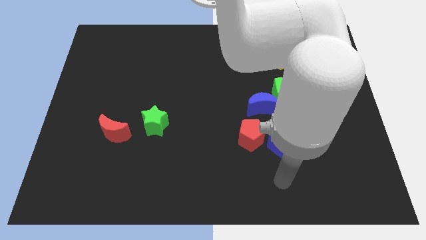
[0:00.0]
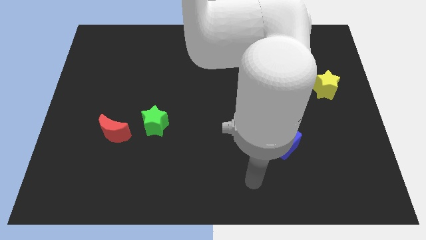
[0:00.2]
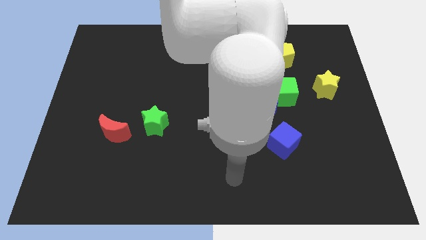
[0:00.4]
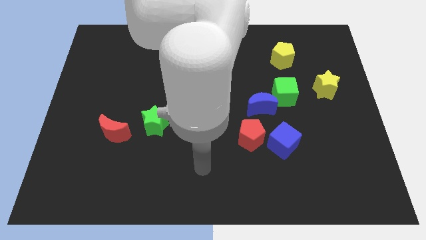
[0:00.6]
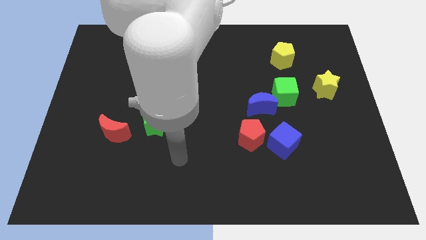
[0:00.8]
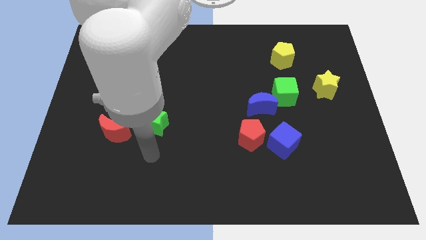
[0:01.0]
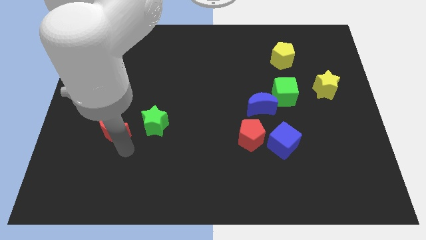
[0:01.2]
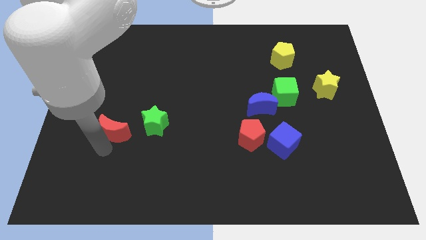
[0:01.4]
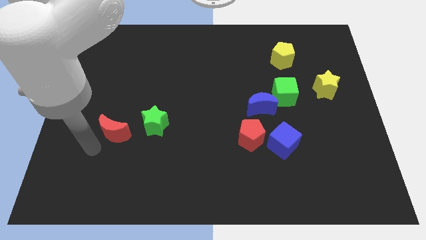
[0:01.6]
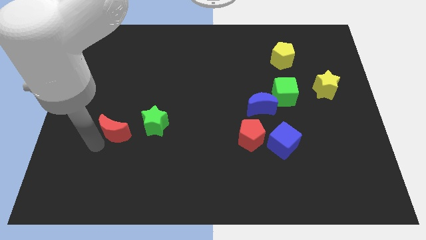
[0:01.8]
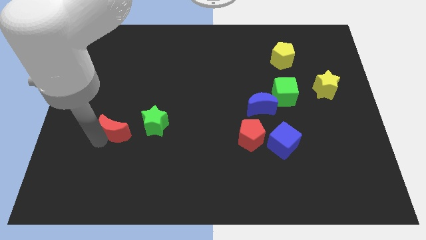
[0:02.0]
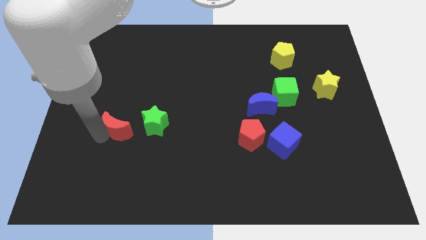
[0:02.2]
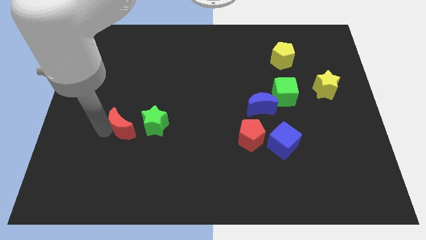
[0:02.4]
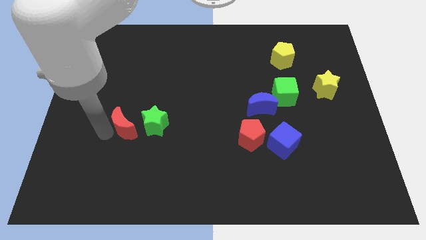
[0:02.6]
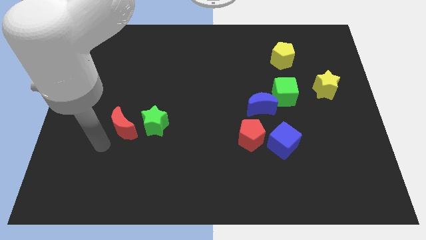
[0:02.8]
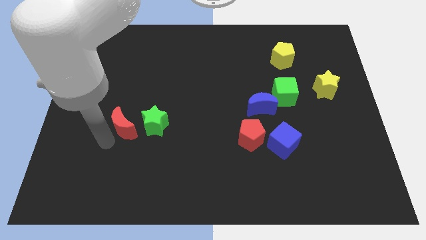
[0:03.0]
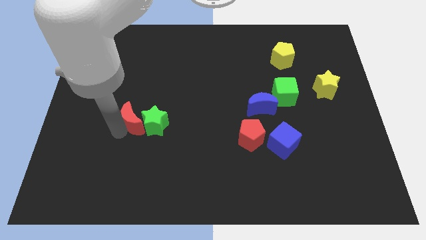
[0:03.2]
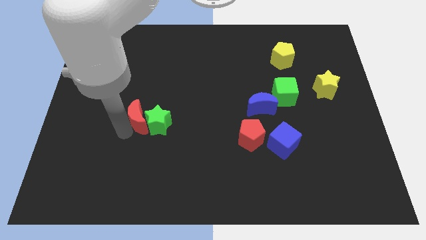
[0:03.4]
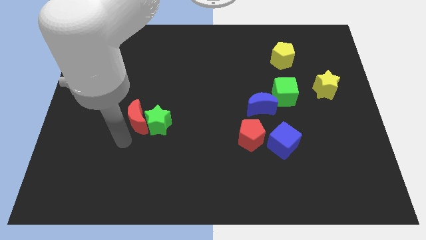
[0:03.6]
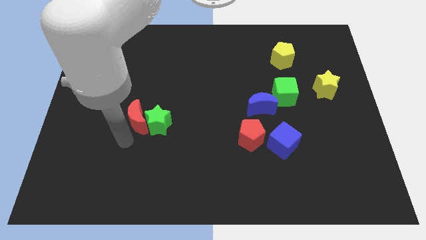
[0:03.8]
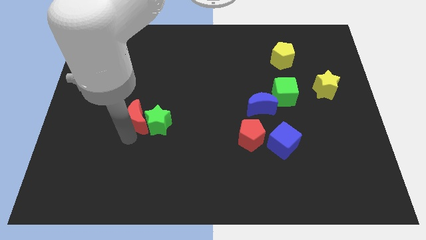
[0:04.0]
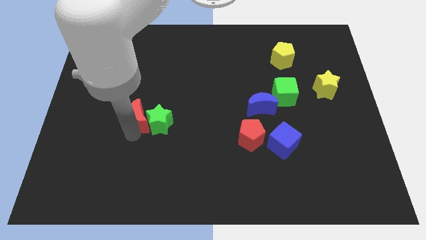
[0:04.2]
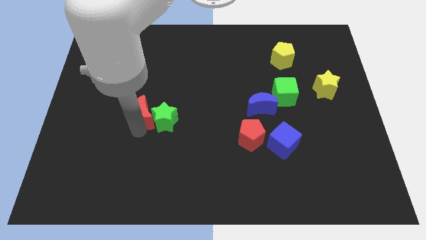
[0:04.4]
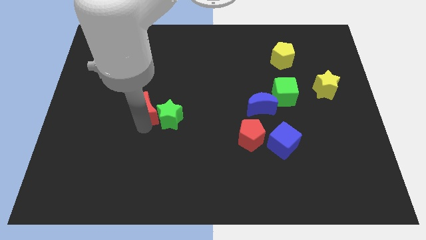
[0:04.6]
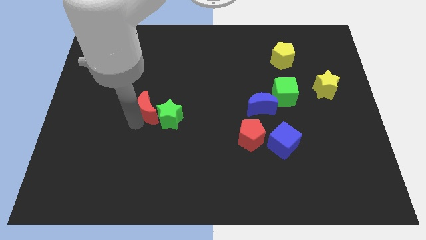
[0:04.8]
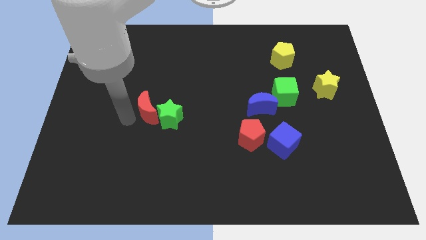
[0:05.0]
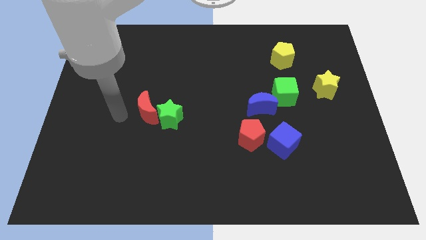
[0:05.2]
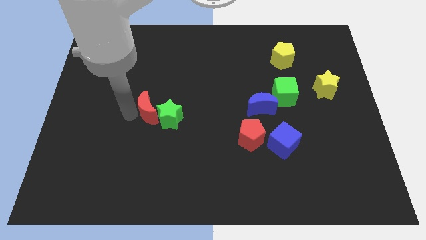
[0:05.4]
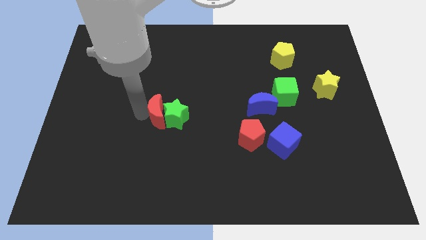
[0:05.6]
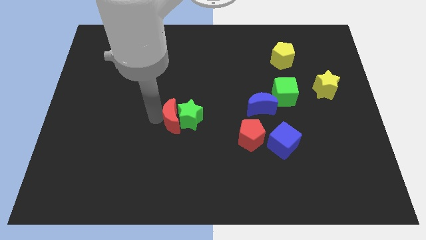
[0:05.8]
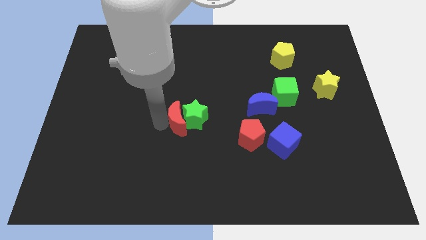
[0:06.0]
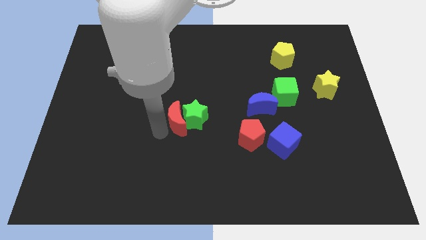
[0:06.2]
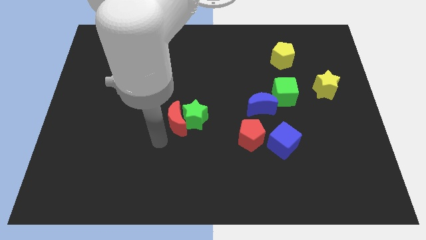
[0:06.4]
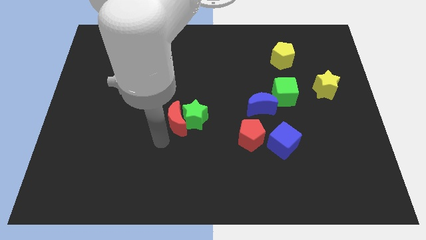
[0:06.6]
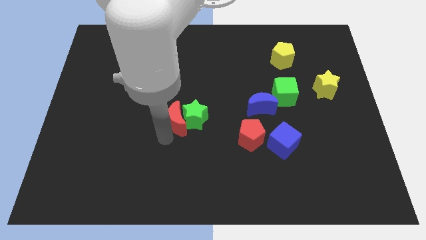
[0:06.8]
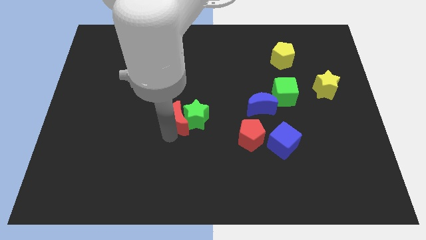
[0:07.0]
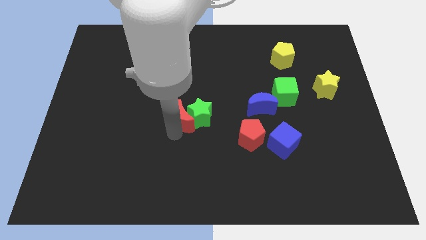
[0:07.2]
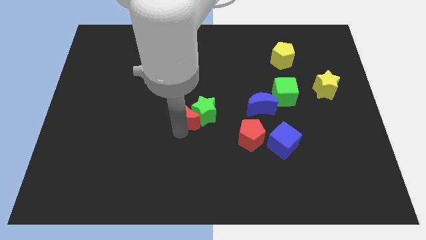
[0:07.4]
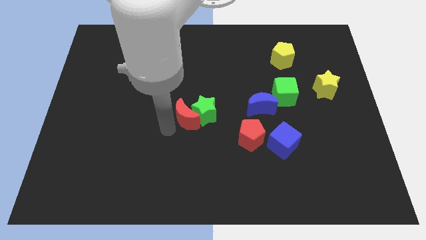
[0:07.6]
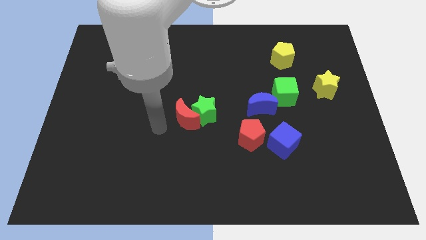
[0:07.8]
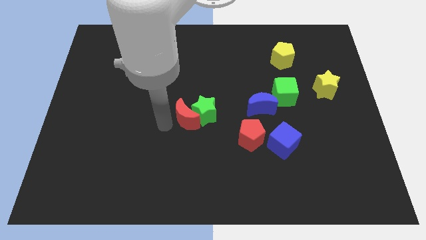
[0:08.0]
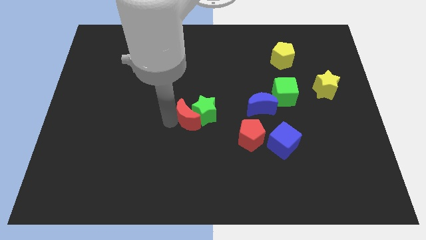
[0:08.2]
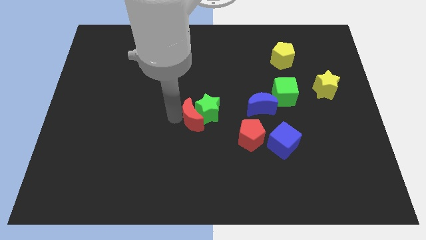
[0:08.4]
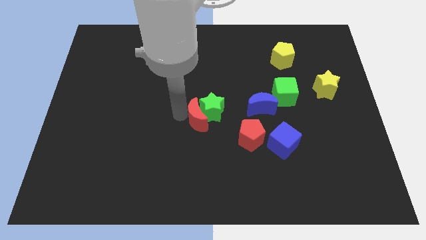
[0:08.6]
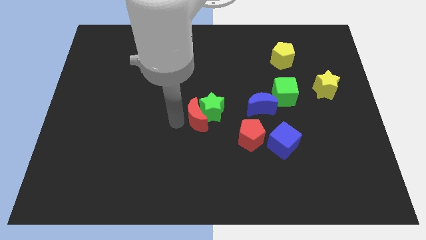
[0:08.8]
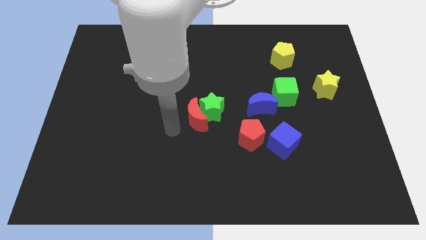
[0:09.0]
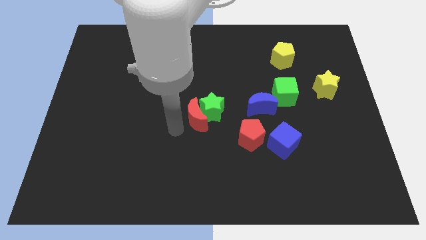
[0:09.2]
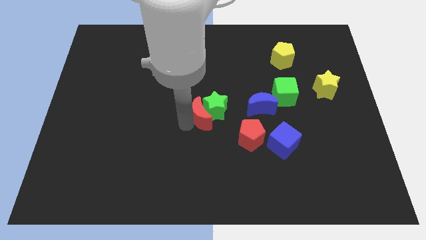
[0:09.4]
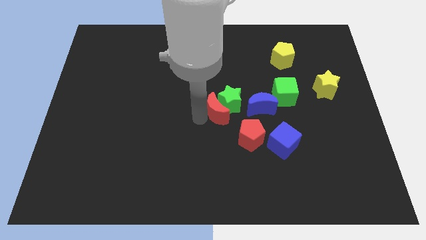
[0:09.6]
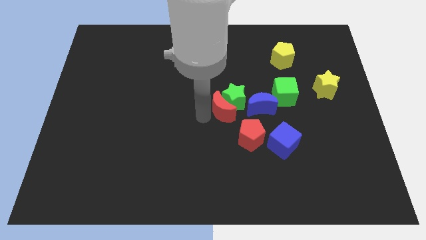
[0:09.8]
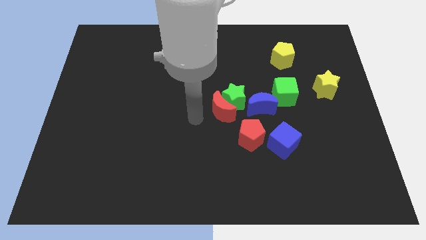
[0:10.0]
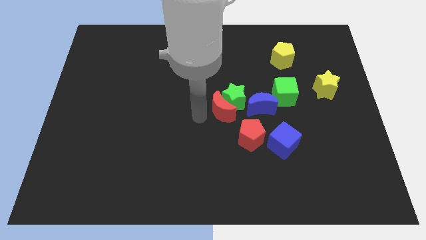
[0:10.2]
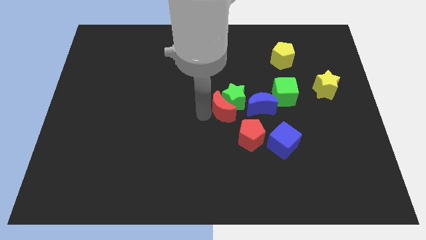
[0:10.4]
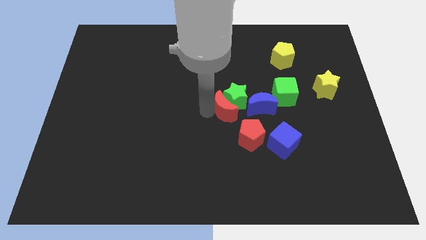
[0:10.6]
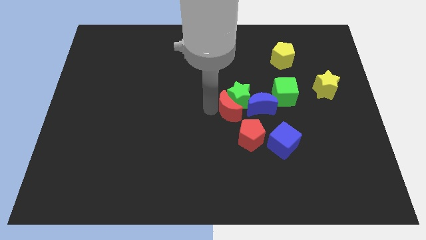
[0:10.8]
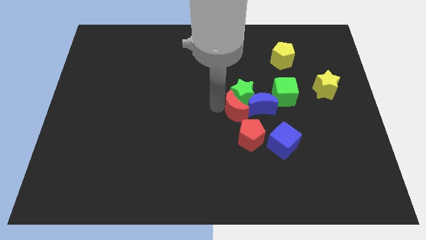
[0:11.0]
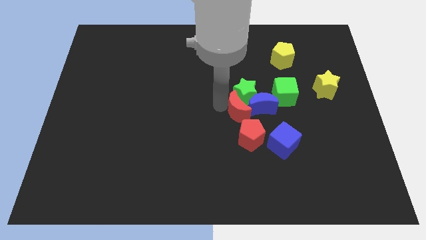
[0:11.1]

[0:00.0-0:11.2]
push the red moon next to the blue moon

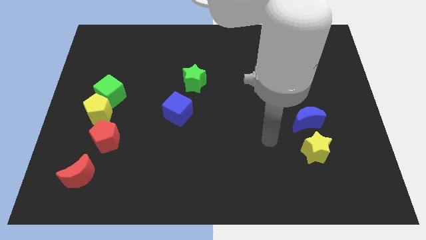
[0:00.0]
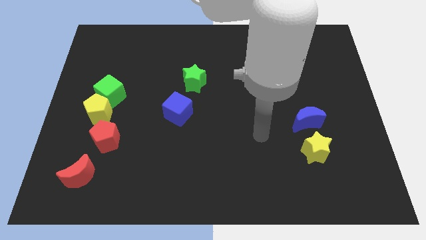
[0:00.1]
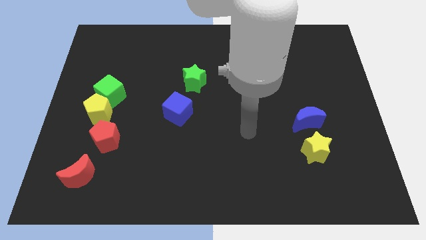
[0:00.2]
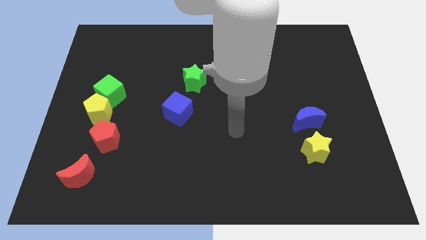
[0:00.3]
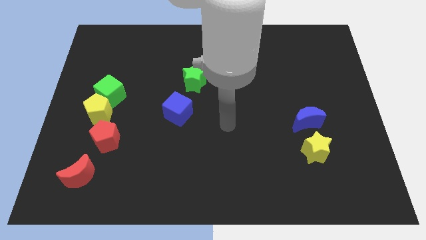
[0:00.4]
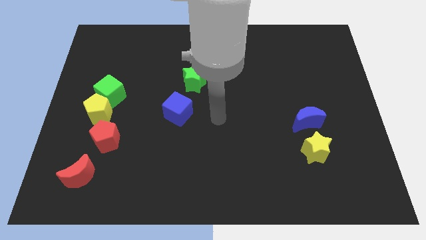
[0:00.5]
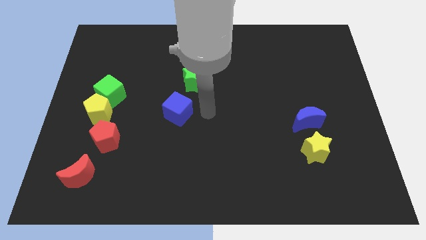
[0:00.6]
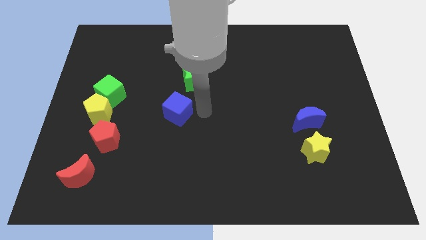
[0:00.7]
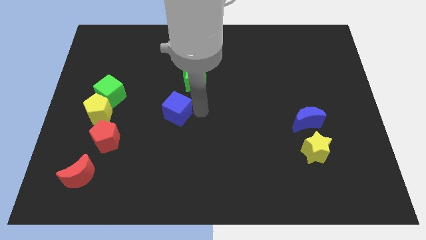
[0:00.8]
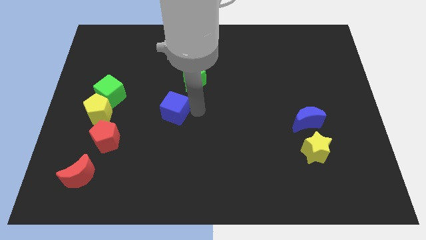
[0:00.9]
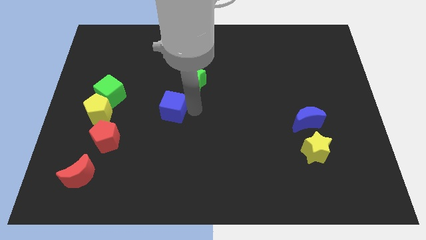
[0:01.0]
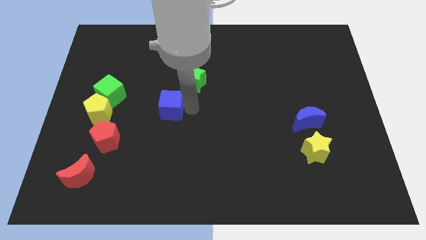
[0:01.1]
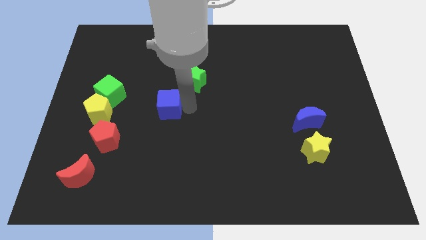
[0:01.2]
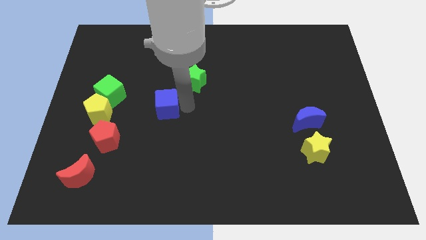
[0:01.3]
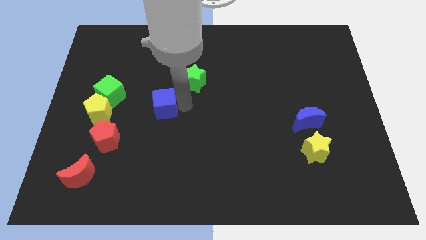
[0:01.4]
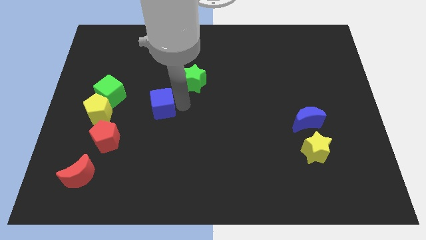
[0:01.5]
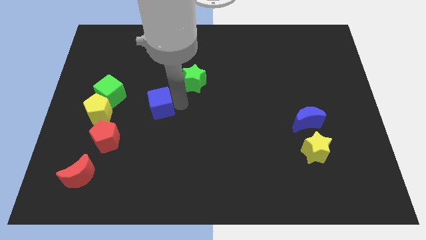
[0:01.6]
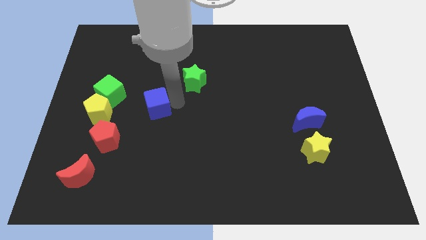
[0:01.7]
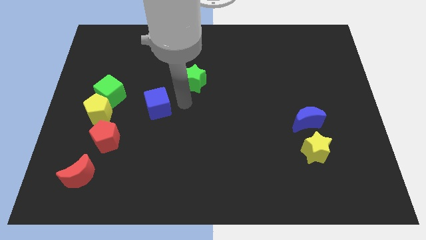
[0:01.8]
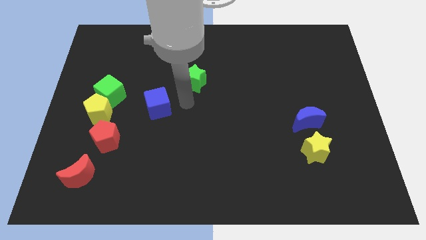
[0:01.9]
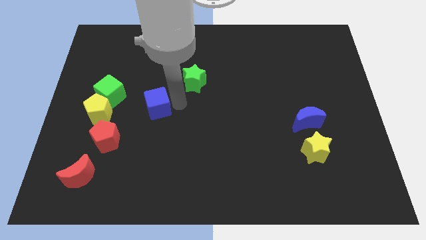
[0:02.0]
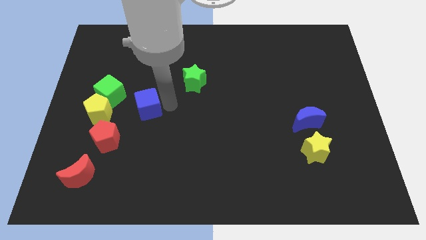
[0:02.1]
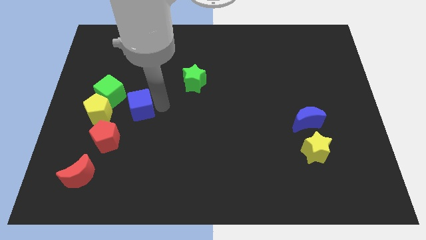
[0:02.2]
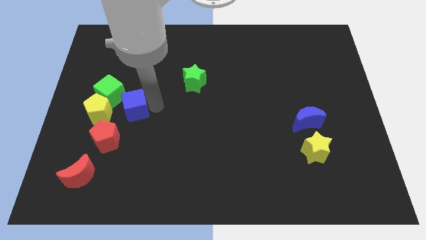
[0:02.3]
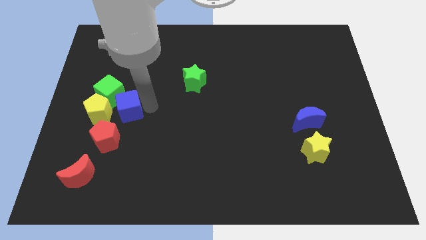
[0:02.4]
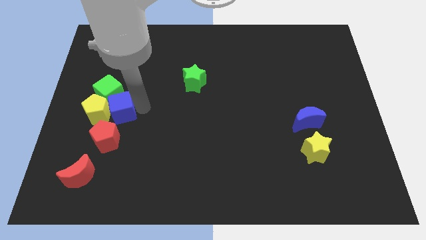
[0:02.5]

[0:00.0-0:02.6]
move the blue cube next to the yellow pentagon
